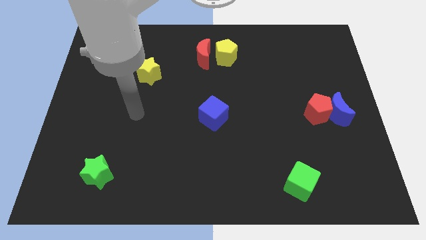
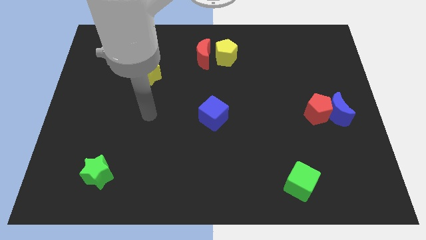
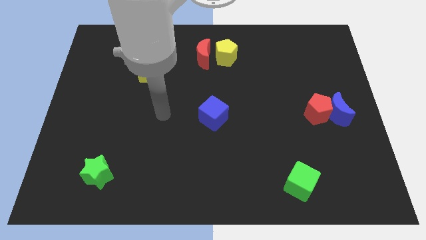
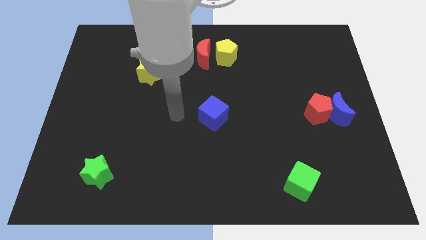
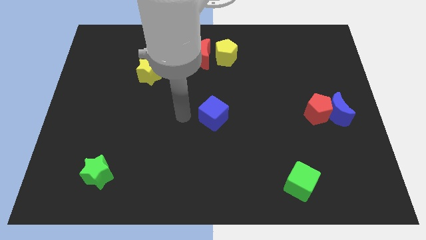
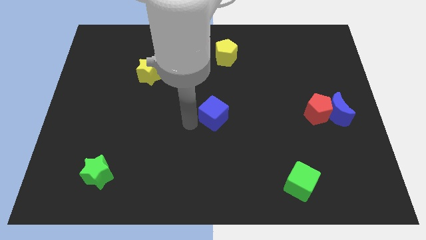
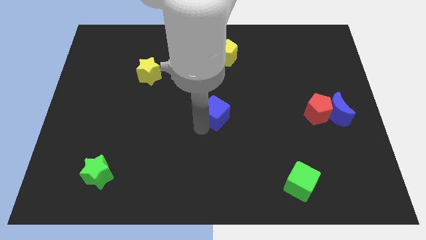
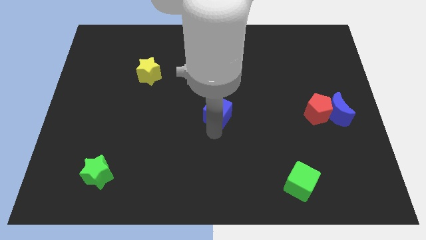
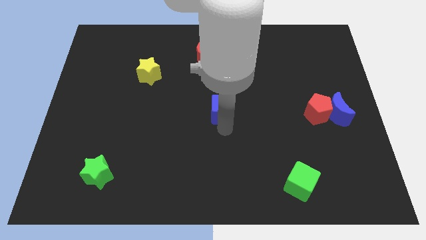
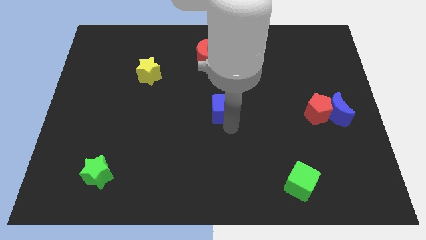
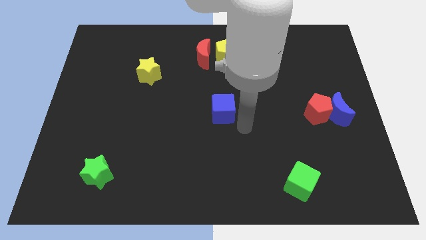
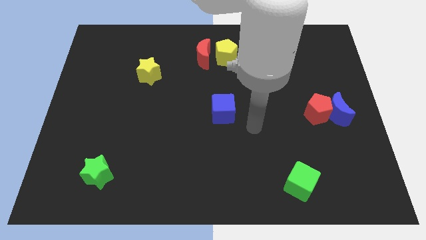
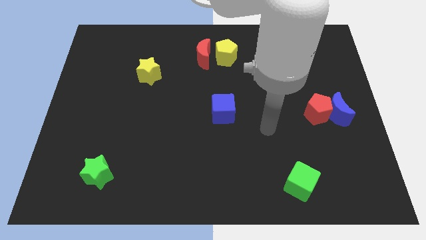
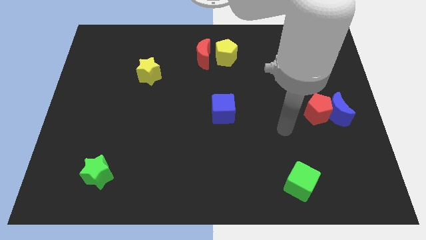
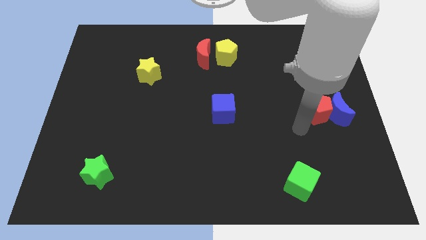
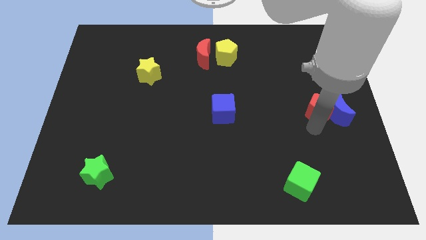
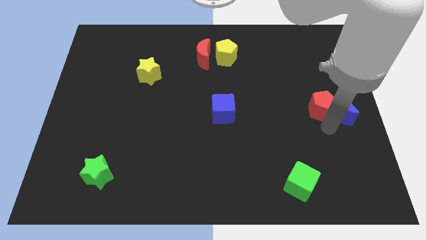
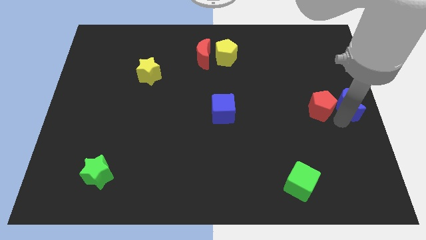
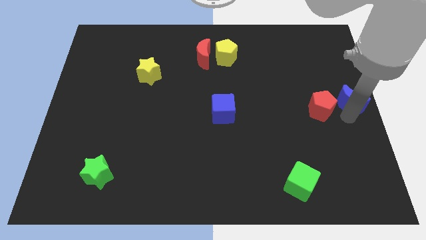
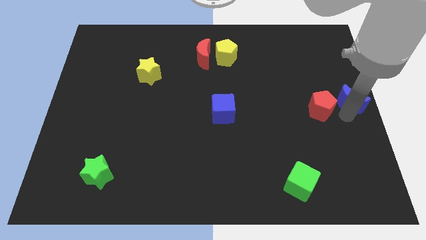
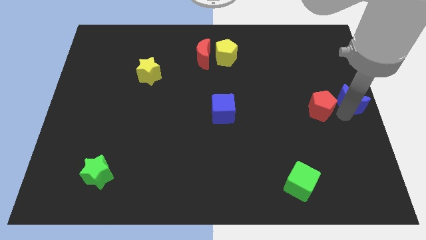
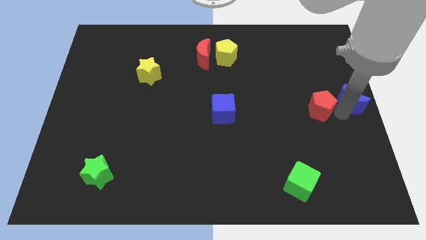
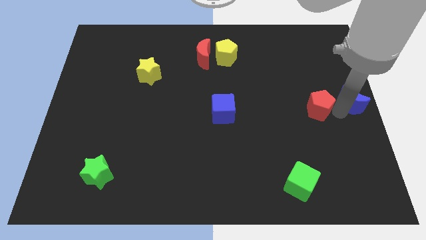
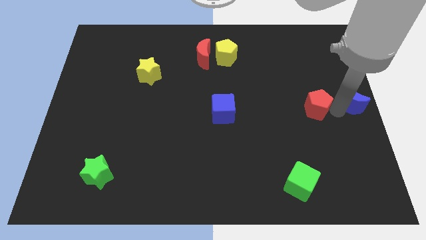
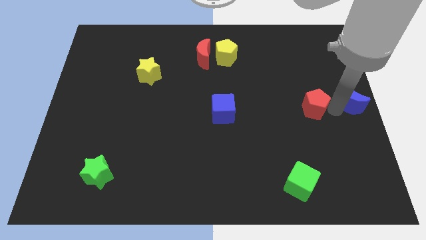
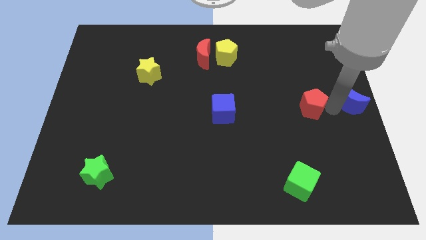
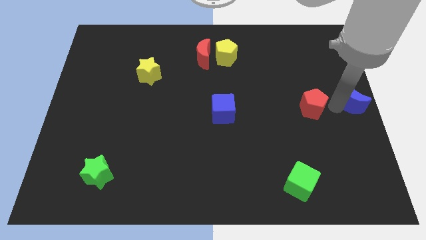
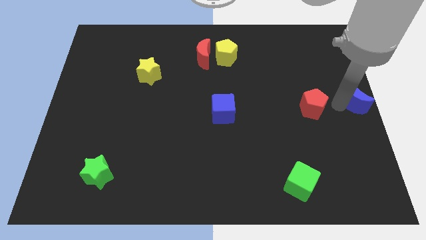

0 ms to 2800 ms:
move the red pentagon away from the blue moon

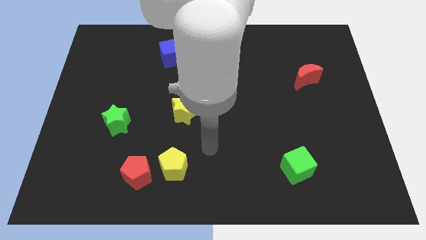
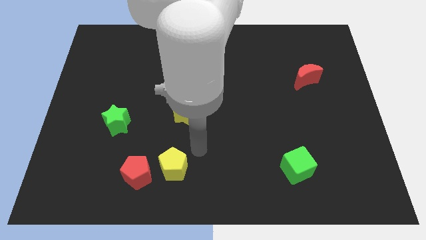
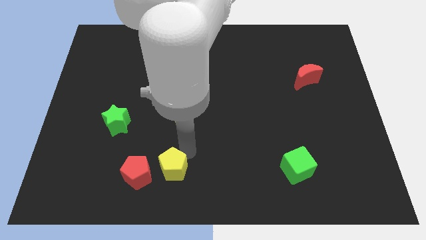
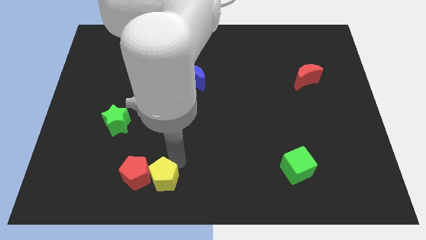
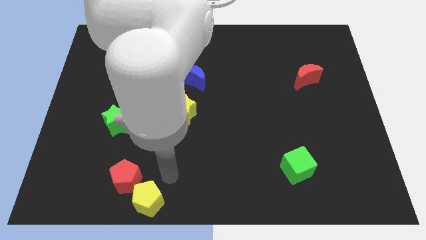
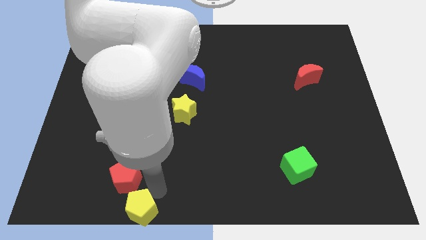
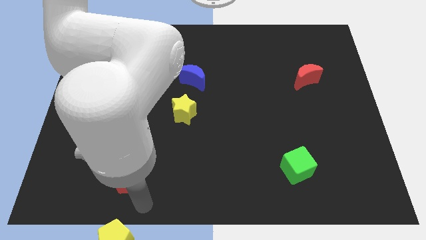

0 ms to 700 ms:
separate the red pentagon from the yellow pentagon

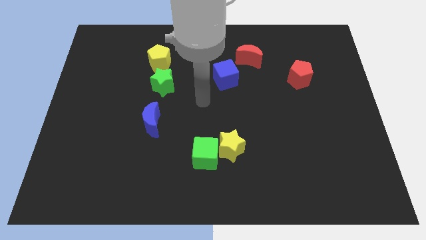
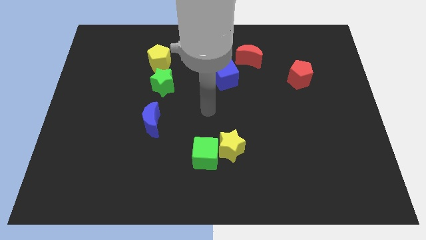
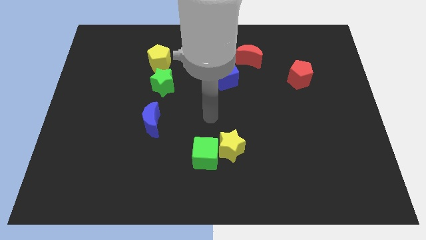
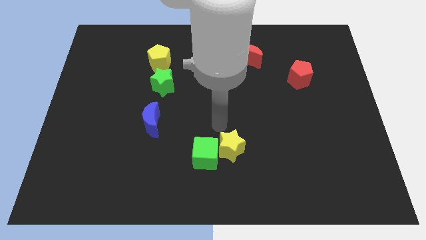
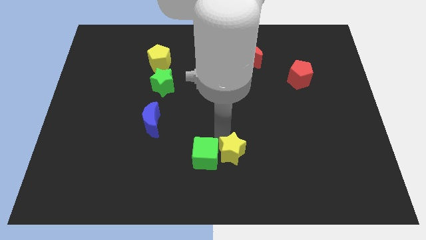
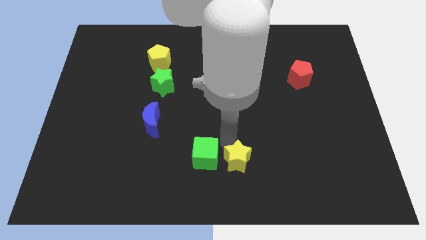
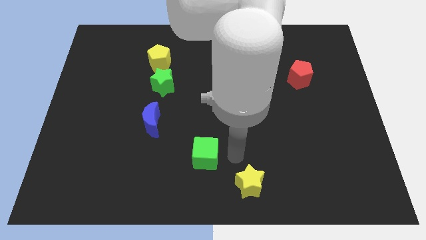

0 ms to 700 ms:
separate the green cube from the yellow star

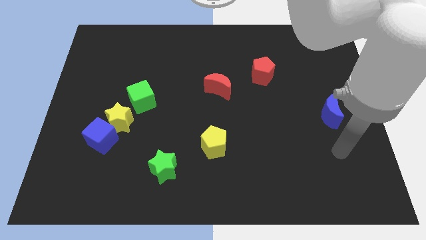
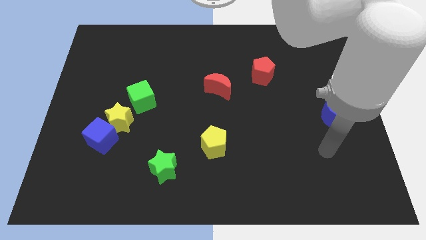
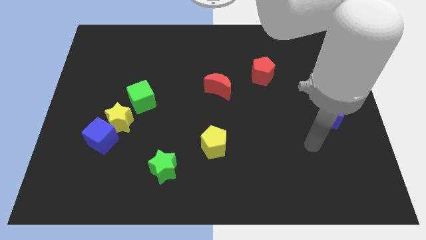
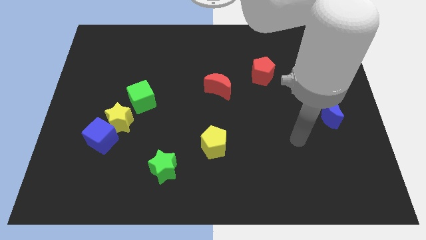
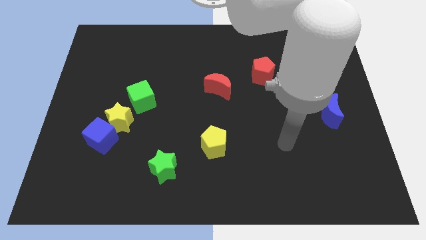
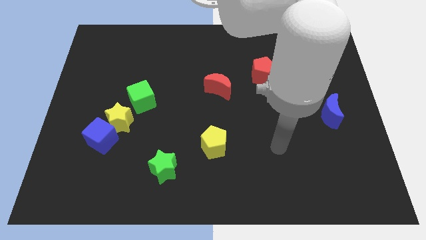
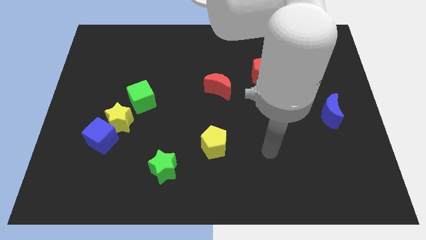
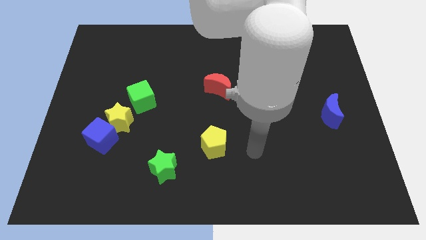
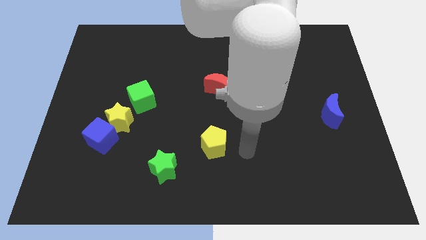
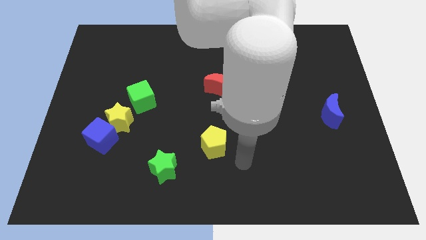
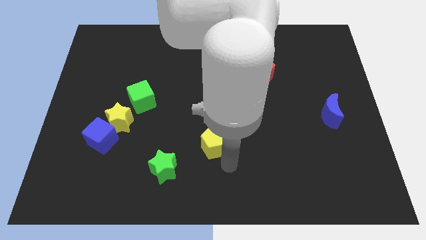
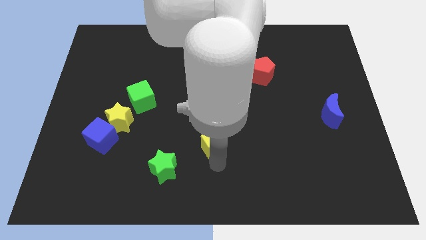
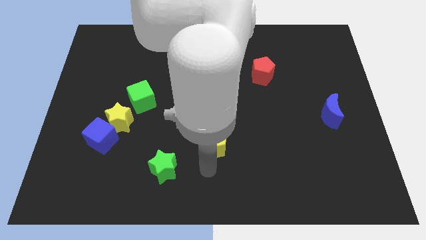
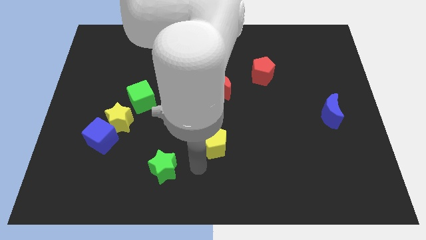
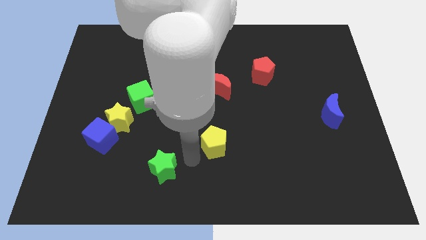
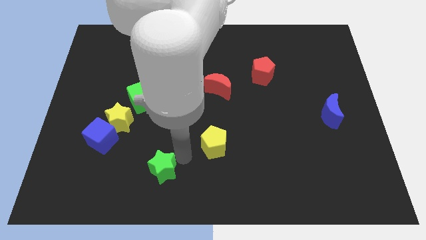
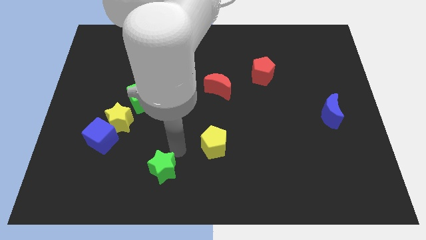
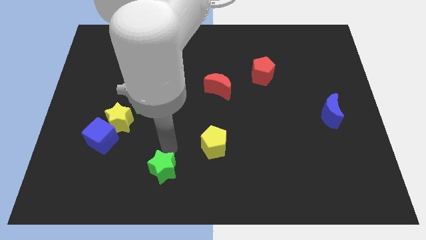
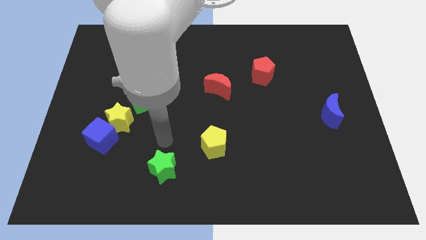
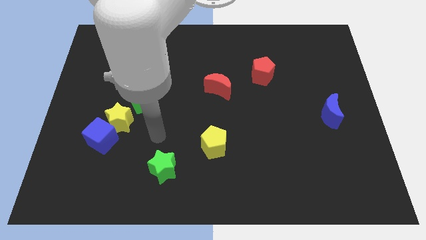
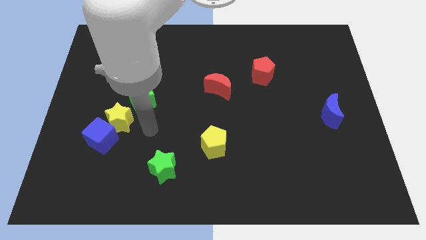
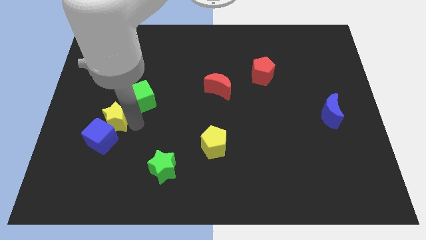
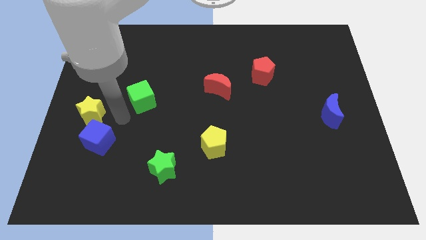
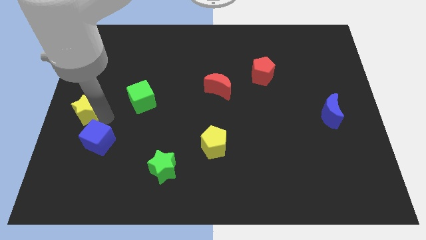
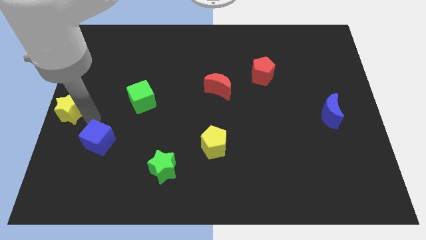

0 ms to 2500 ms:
separate the blue cube from the yellow star

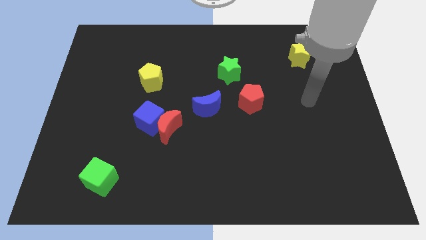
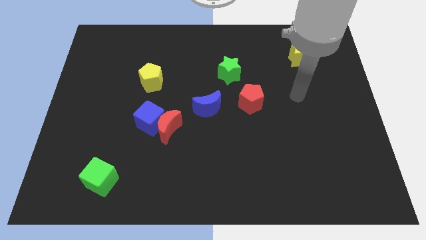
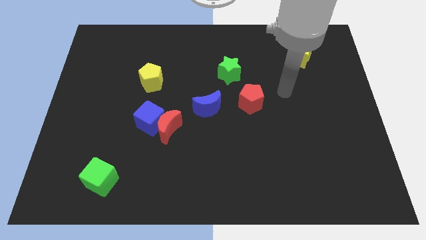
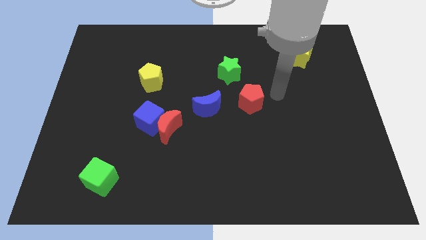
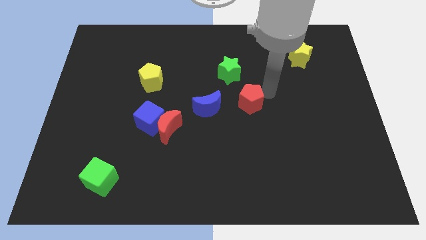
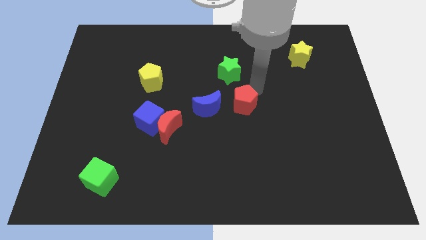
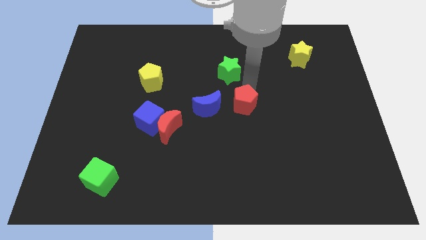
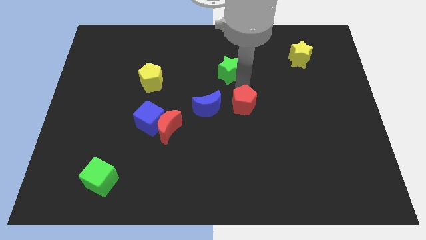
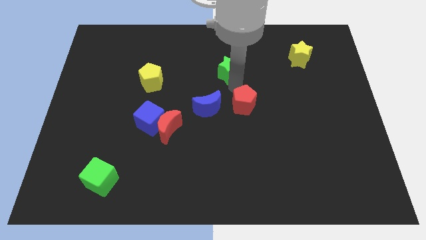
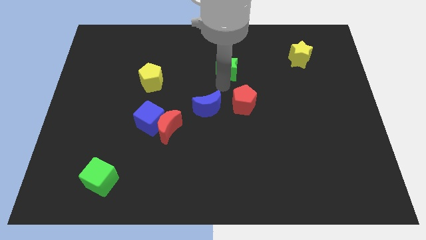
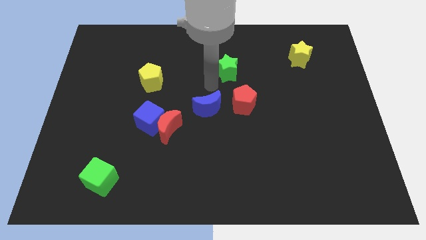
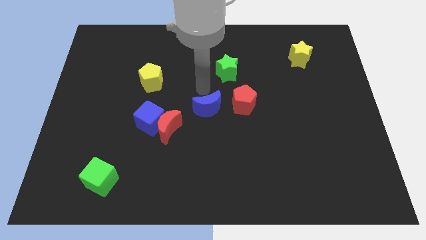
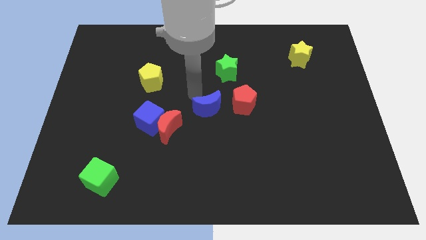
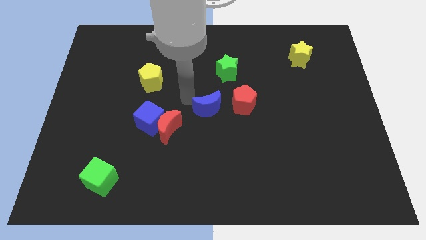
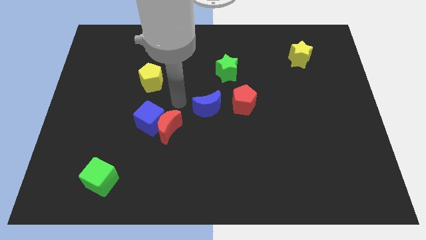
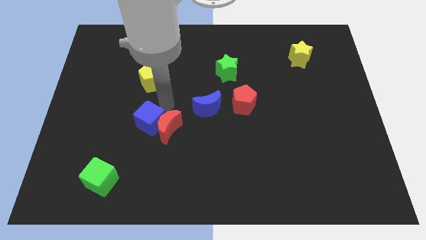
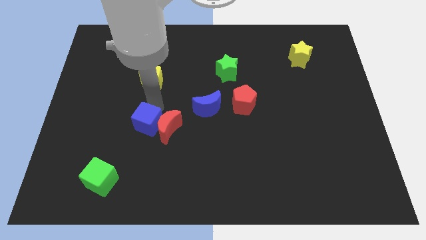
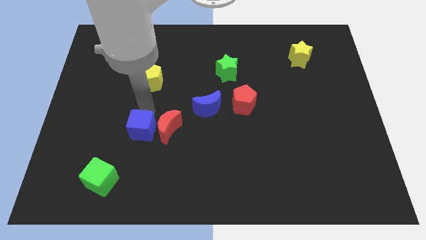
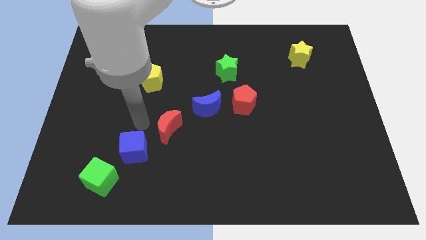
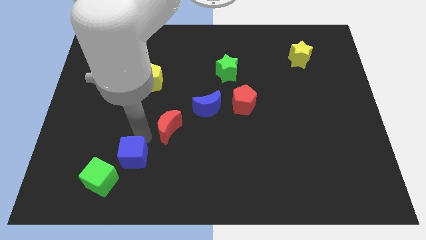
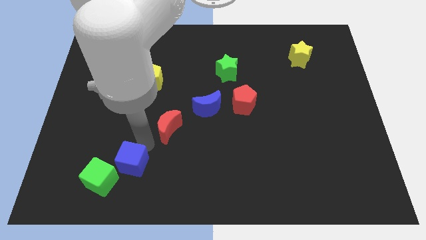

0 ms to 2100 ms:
separate the red moon from the blue cube

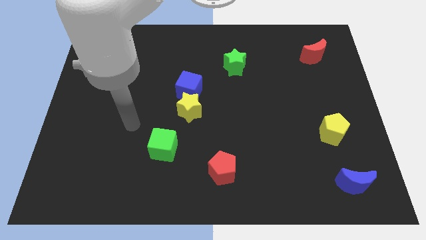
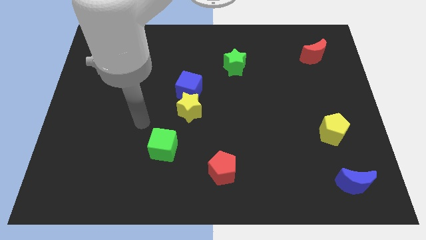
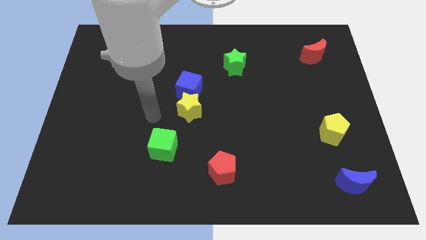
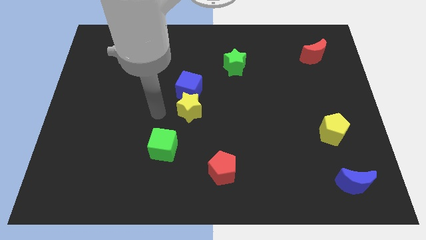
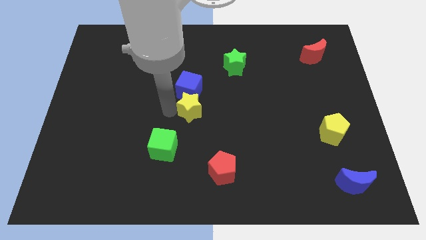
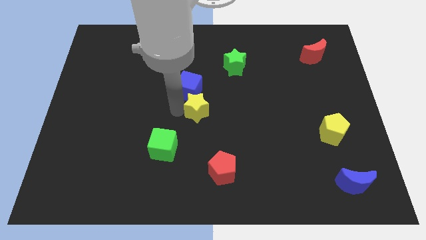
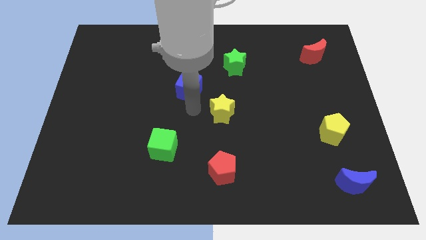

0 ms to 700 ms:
move the blue cube away from the yellow star
